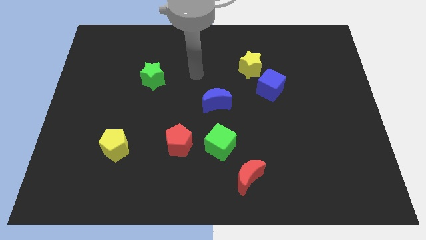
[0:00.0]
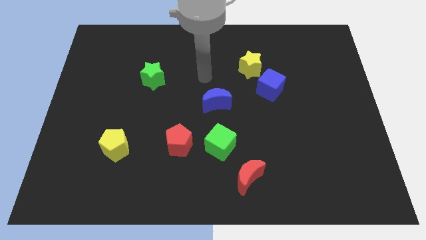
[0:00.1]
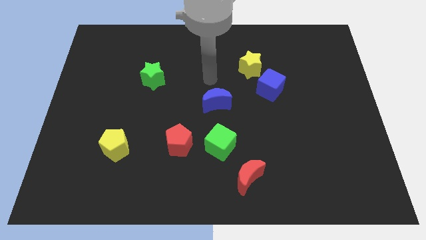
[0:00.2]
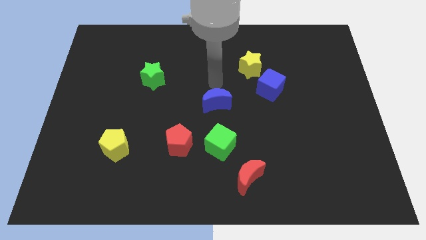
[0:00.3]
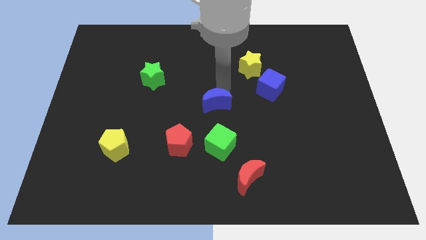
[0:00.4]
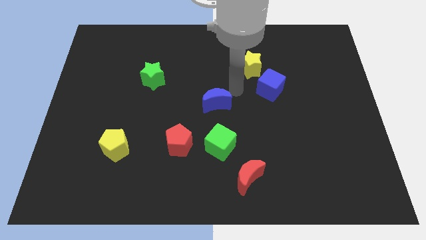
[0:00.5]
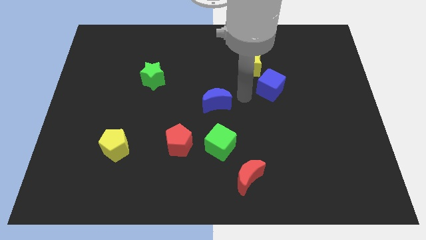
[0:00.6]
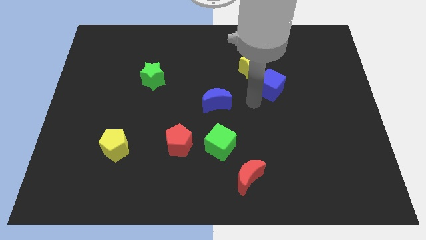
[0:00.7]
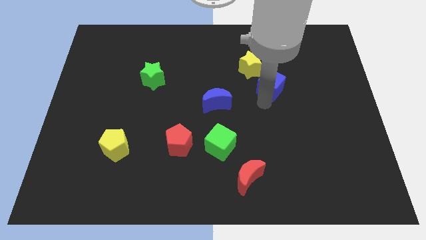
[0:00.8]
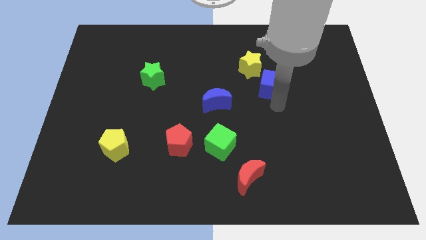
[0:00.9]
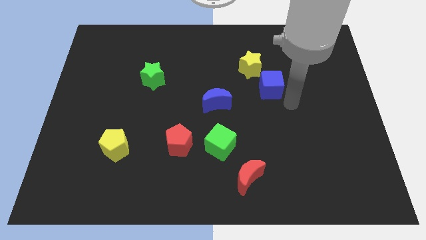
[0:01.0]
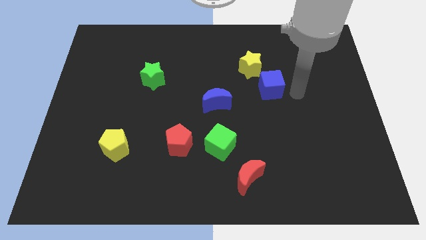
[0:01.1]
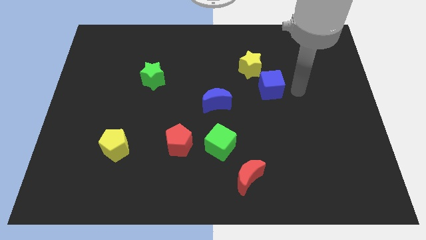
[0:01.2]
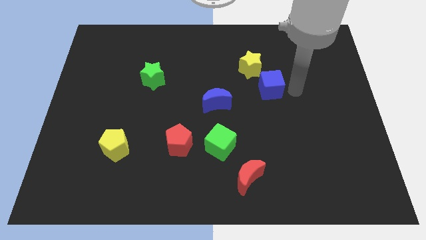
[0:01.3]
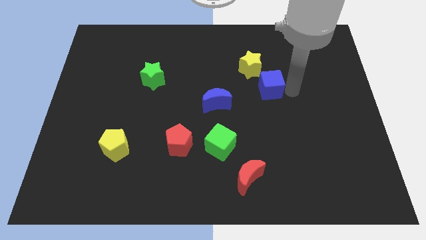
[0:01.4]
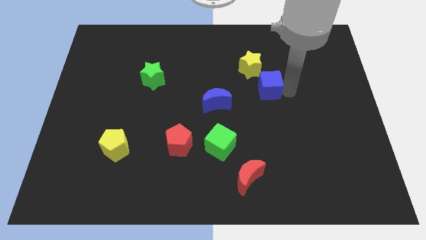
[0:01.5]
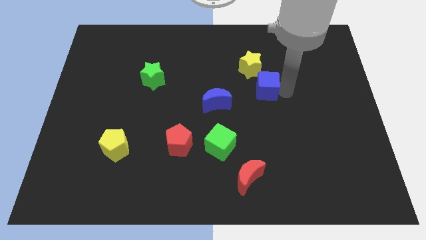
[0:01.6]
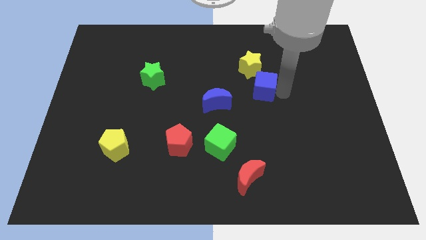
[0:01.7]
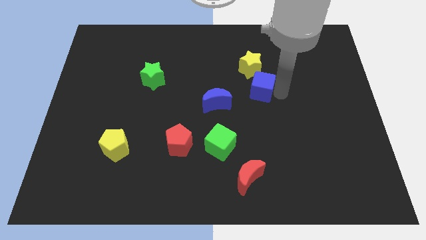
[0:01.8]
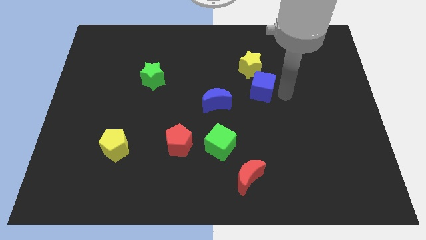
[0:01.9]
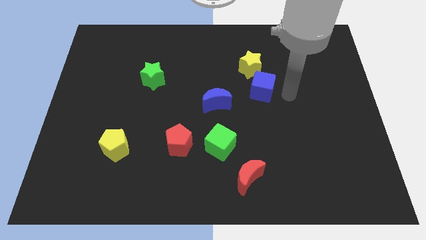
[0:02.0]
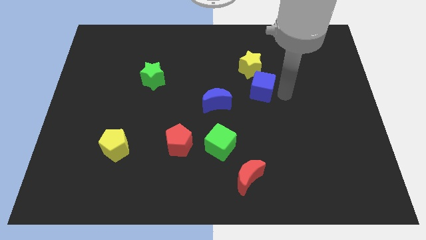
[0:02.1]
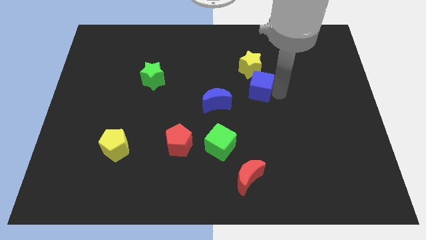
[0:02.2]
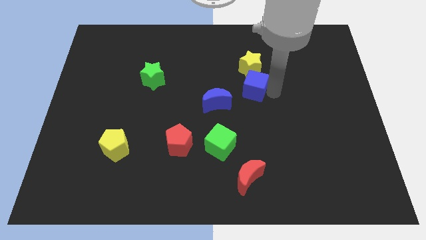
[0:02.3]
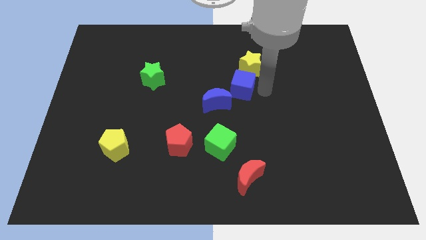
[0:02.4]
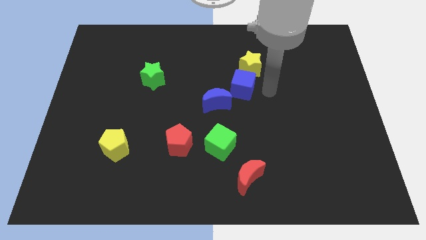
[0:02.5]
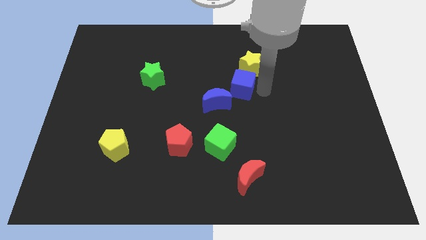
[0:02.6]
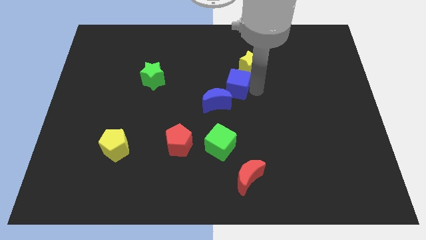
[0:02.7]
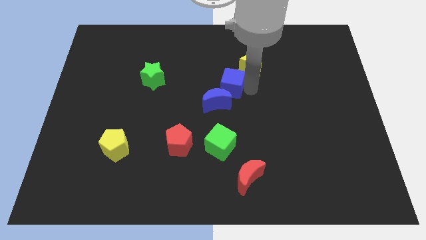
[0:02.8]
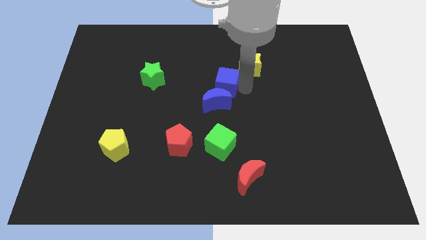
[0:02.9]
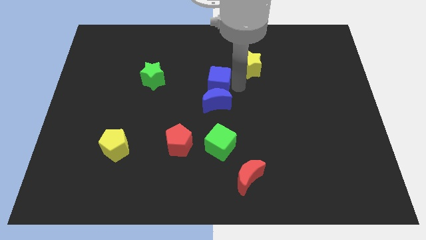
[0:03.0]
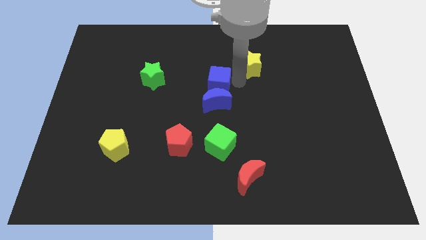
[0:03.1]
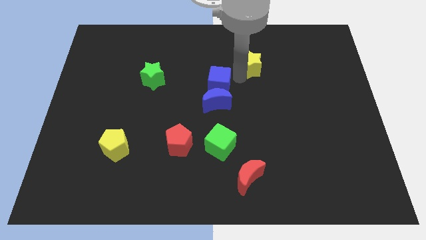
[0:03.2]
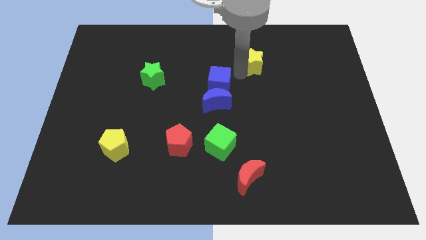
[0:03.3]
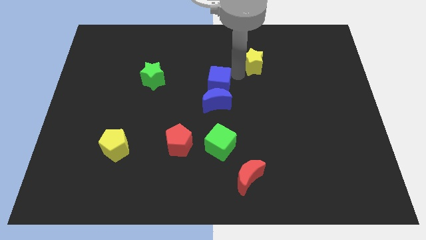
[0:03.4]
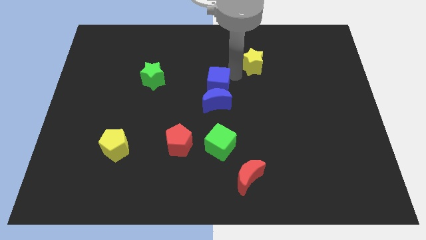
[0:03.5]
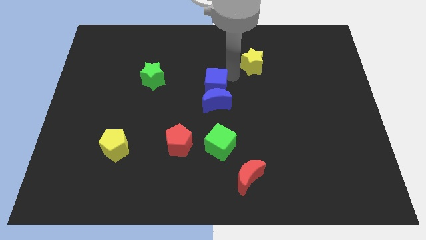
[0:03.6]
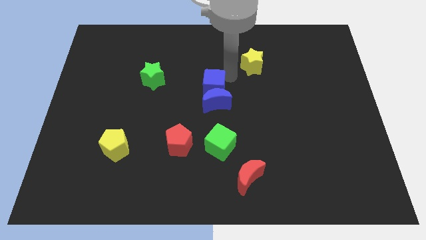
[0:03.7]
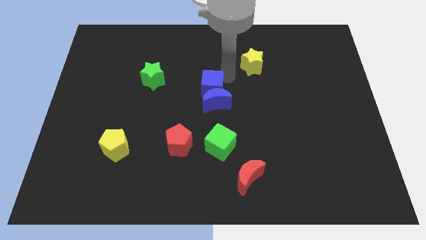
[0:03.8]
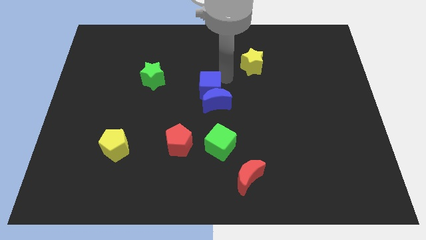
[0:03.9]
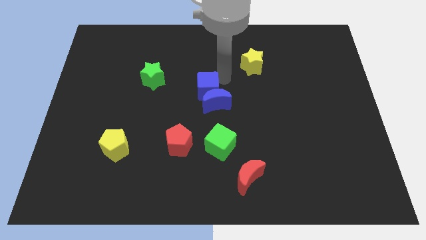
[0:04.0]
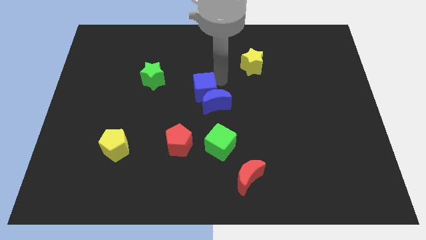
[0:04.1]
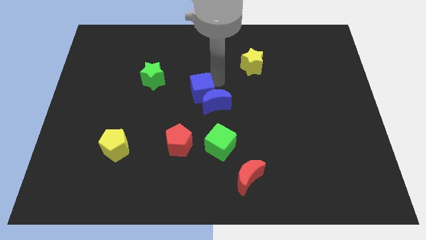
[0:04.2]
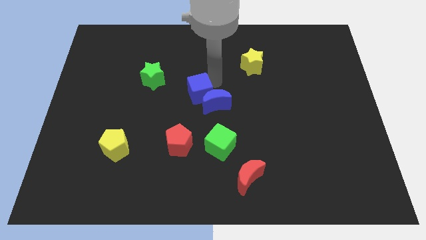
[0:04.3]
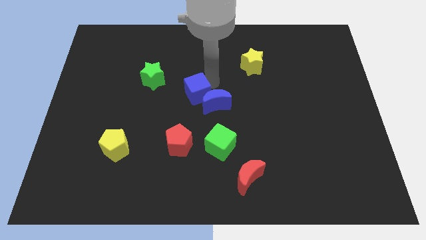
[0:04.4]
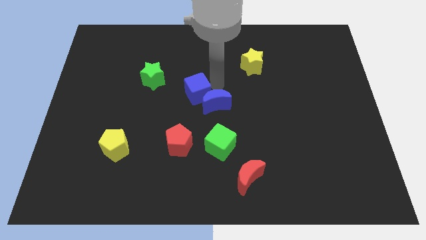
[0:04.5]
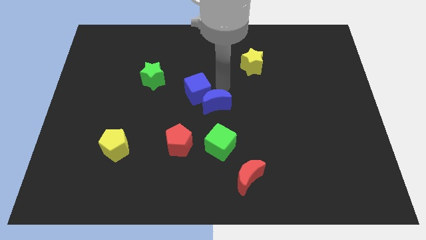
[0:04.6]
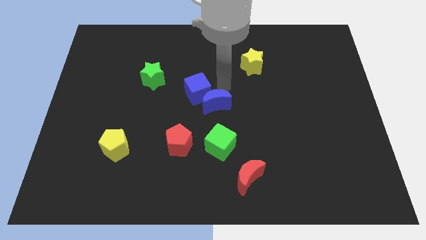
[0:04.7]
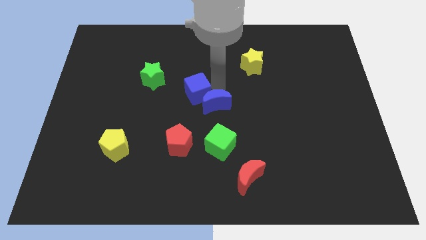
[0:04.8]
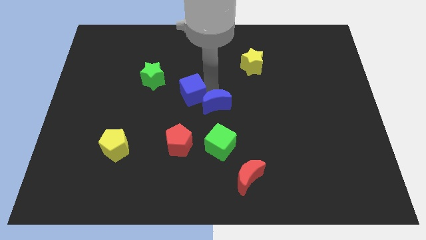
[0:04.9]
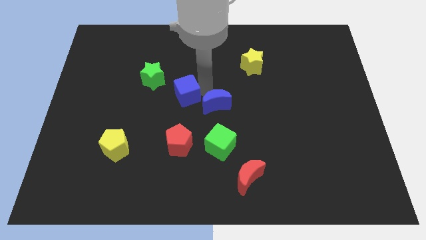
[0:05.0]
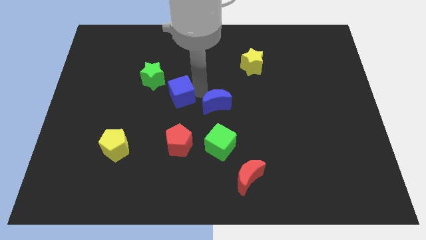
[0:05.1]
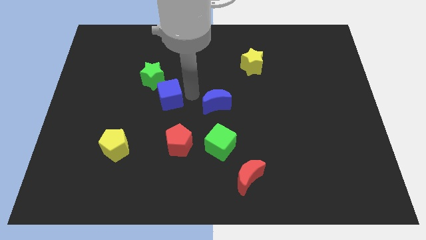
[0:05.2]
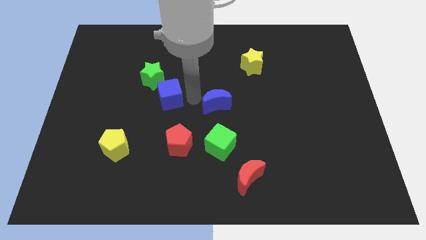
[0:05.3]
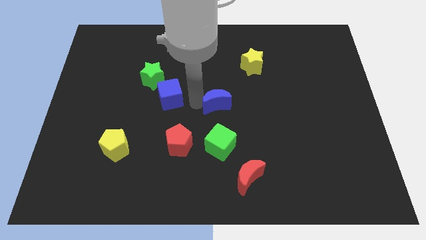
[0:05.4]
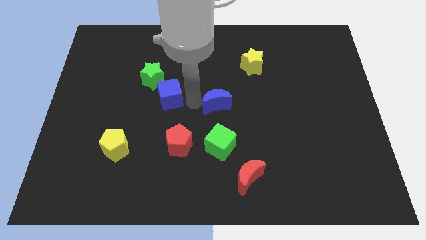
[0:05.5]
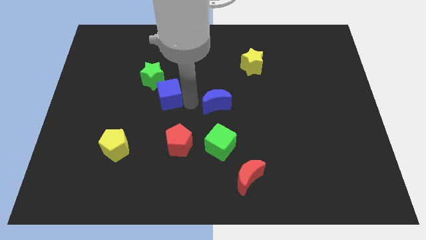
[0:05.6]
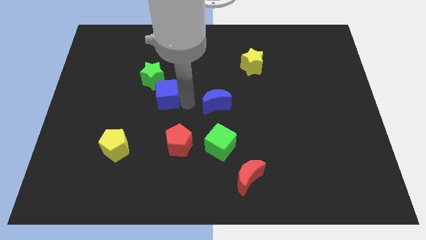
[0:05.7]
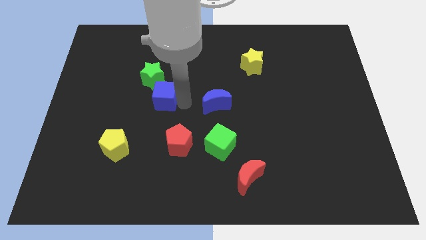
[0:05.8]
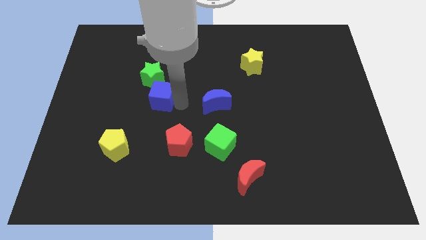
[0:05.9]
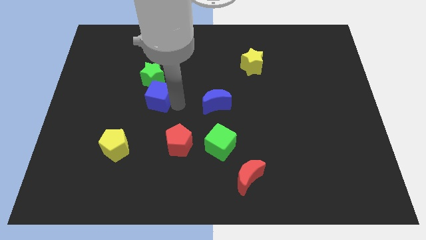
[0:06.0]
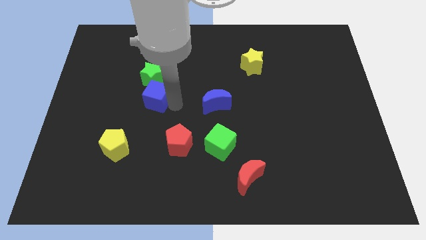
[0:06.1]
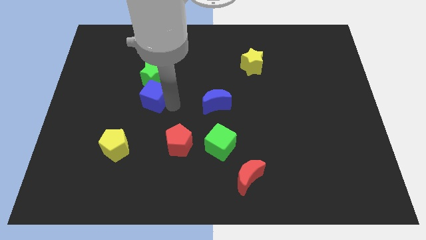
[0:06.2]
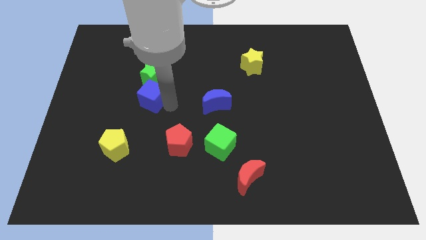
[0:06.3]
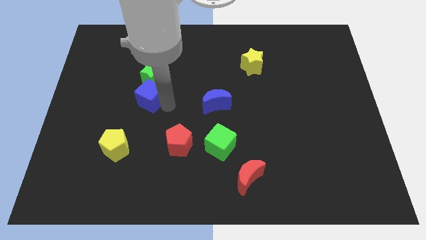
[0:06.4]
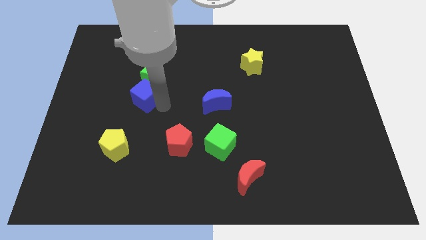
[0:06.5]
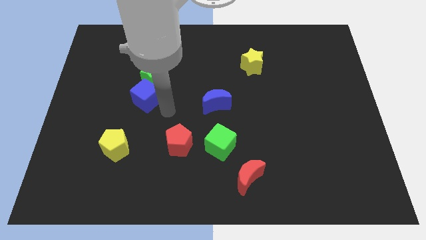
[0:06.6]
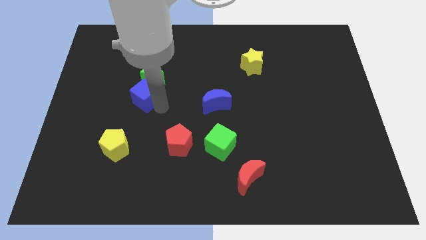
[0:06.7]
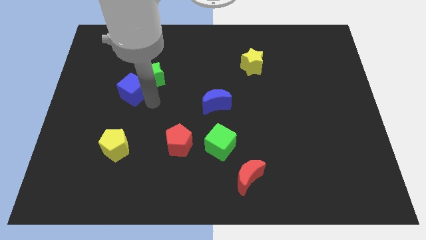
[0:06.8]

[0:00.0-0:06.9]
move the blue cube to the left of the green star
